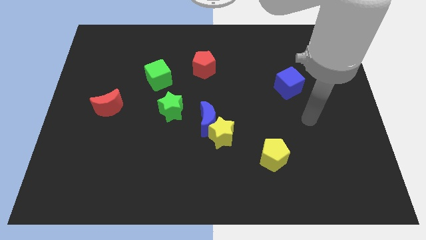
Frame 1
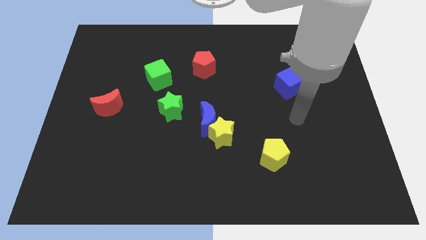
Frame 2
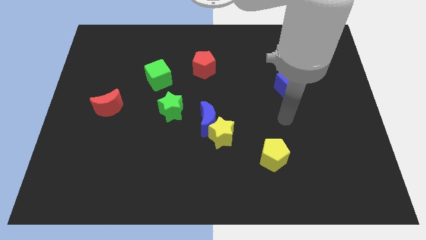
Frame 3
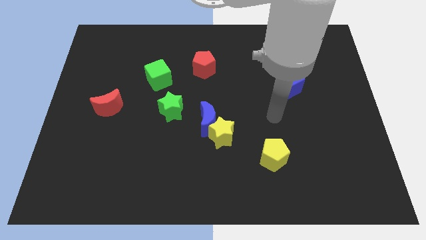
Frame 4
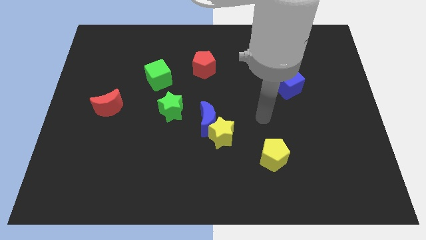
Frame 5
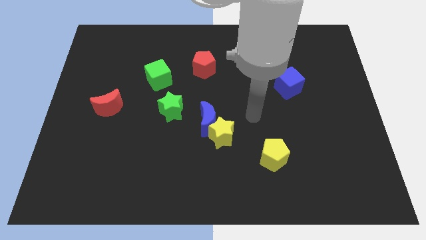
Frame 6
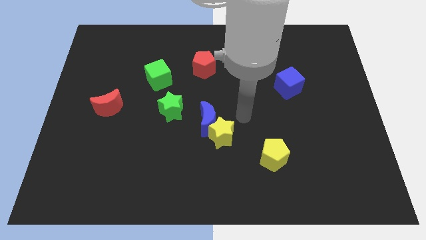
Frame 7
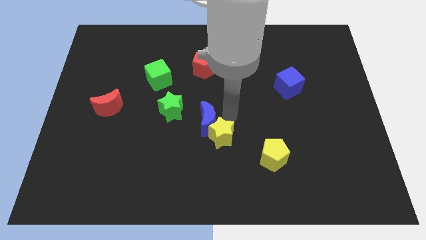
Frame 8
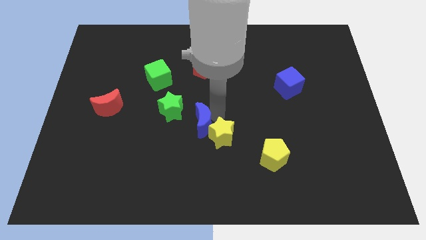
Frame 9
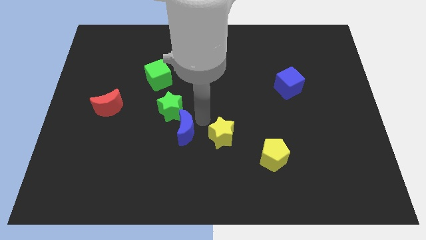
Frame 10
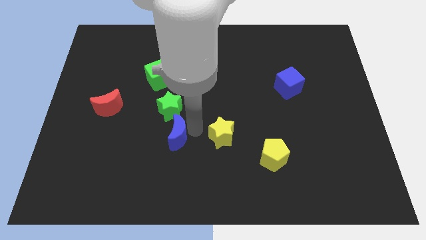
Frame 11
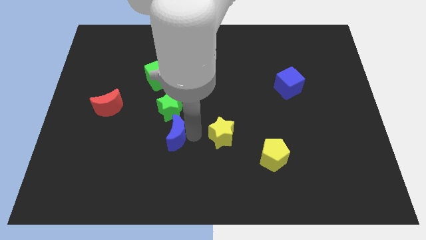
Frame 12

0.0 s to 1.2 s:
pull the yellow star apart from the blue moon

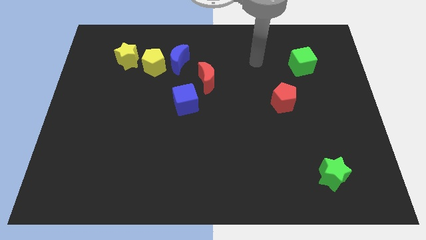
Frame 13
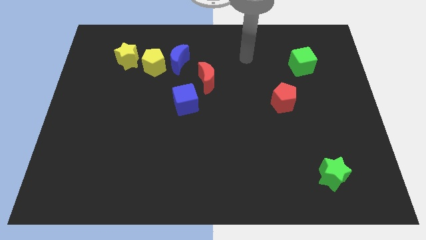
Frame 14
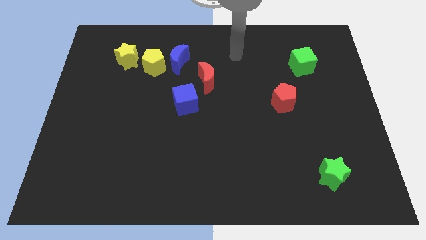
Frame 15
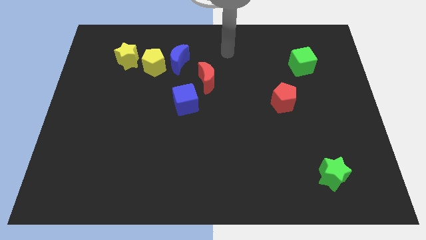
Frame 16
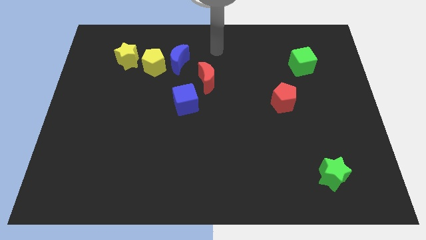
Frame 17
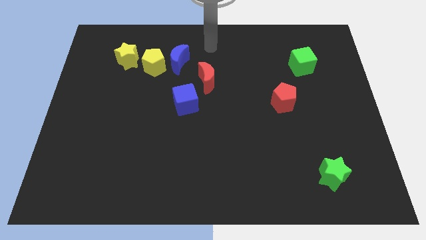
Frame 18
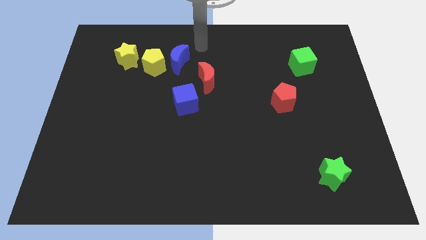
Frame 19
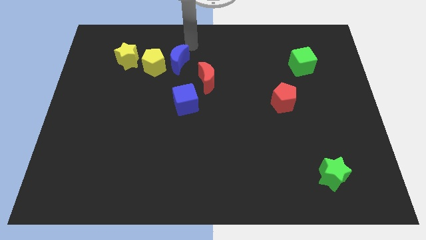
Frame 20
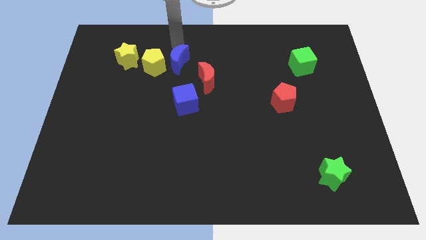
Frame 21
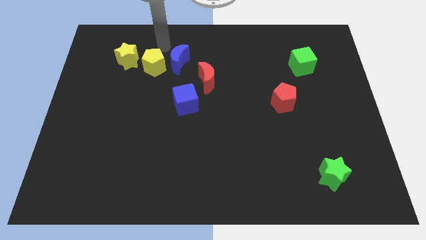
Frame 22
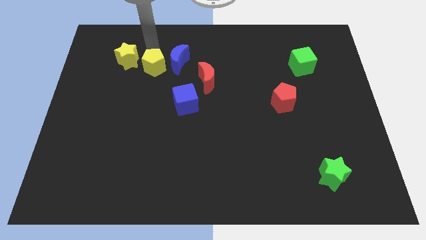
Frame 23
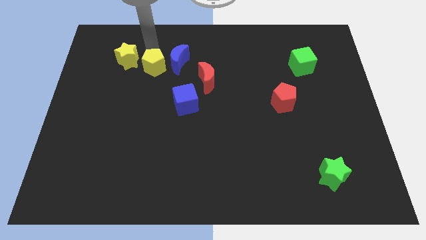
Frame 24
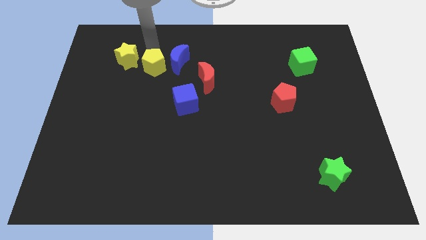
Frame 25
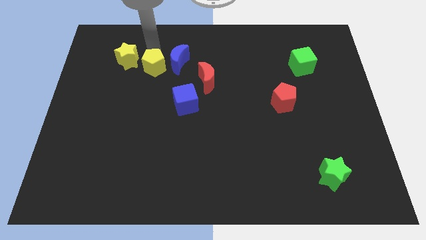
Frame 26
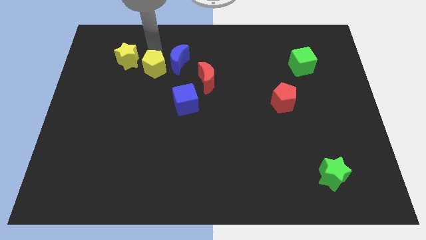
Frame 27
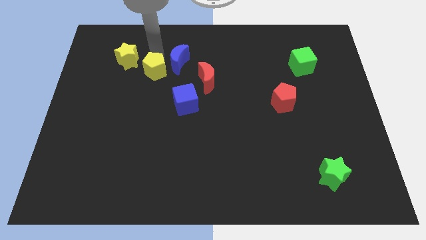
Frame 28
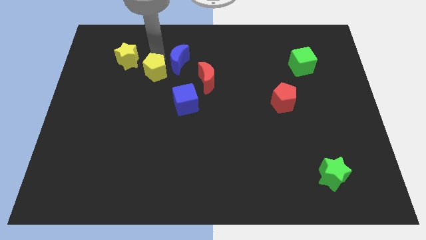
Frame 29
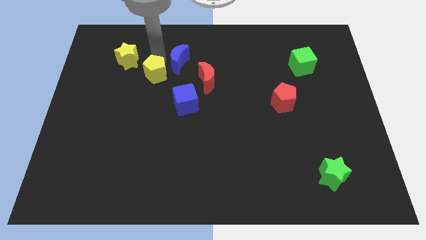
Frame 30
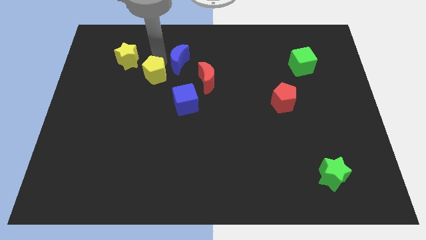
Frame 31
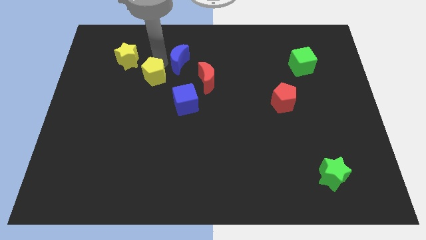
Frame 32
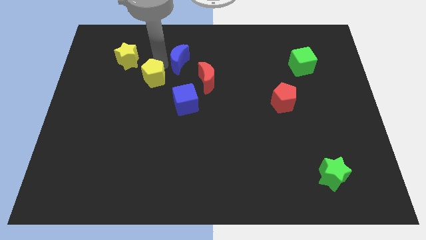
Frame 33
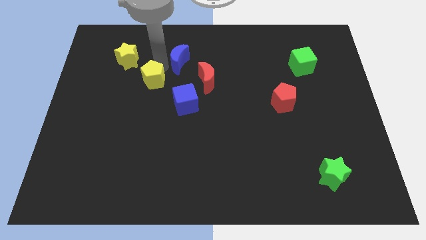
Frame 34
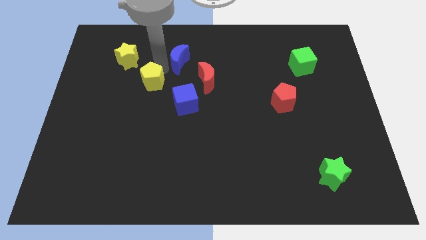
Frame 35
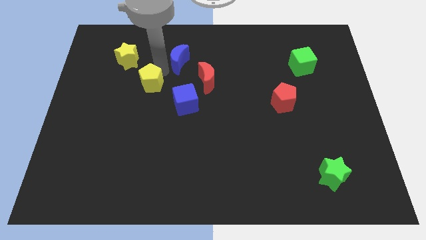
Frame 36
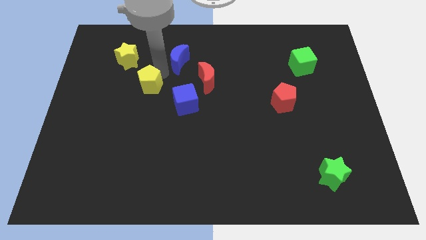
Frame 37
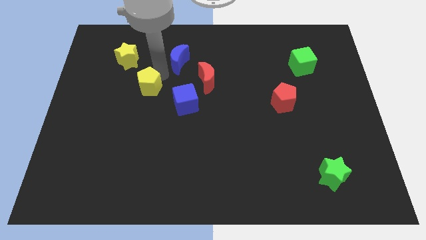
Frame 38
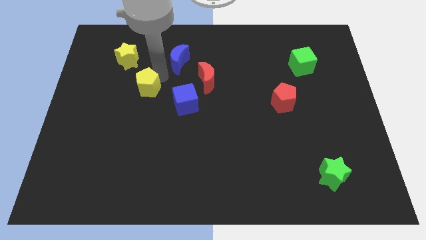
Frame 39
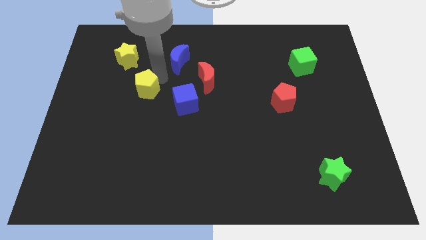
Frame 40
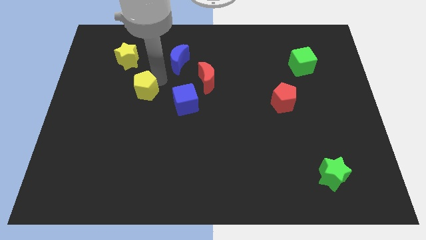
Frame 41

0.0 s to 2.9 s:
separate the yellow pentagon from the blue moon and yellow star

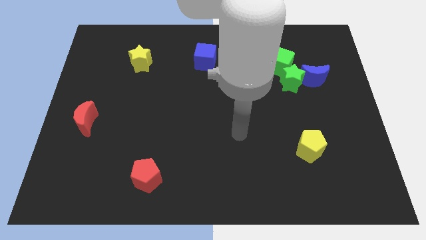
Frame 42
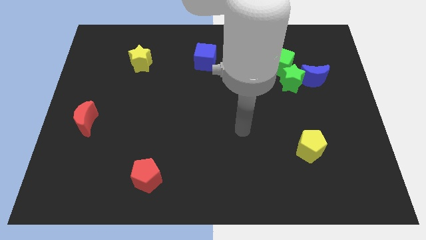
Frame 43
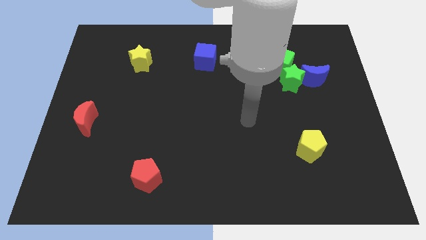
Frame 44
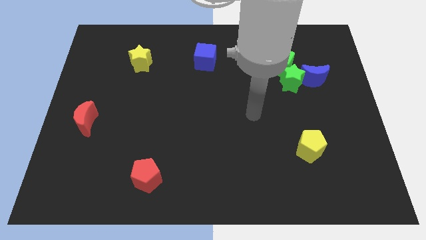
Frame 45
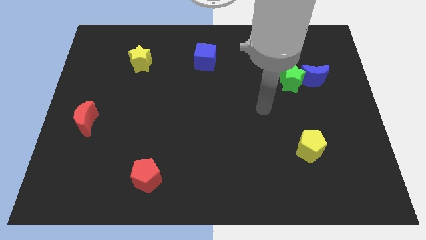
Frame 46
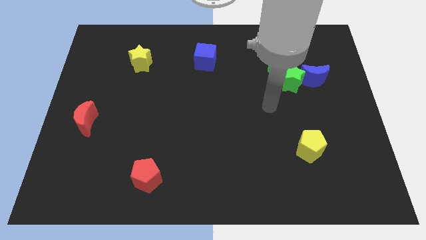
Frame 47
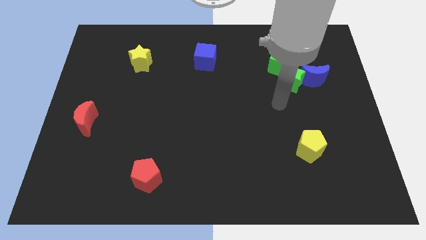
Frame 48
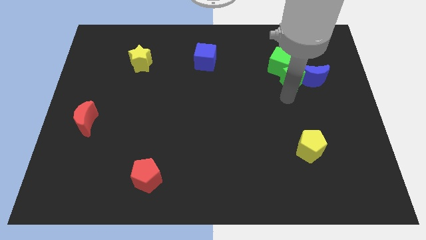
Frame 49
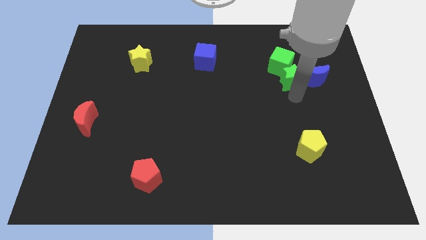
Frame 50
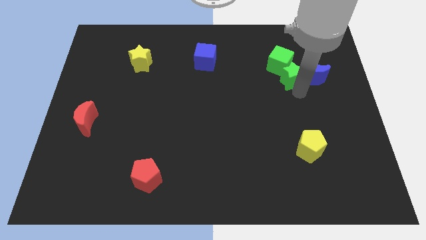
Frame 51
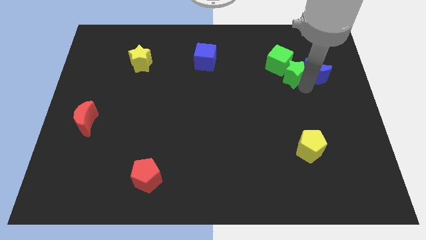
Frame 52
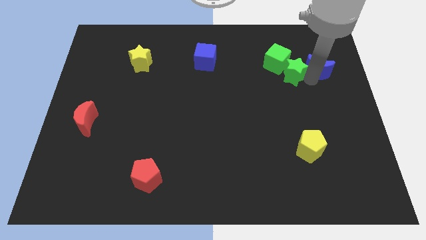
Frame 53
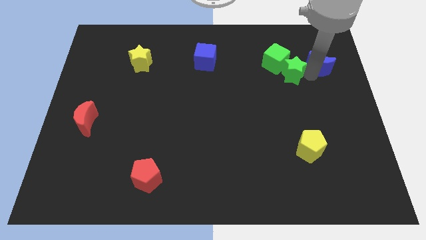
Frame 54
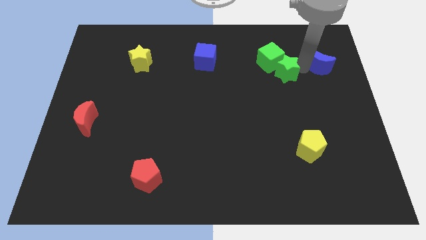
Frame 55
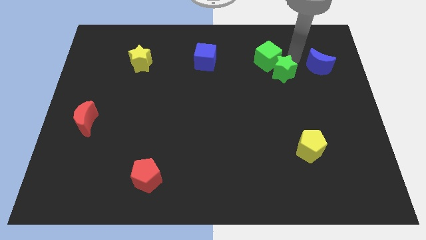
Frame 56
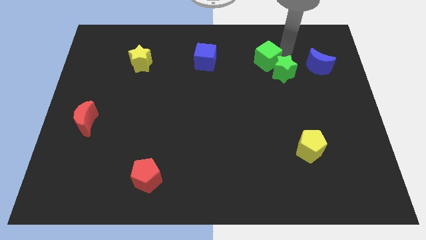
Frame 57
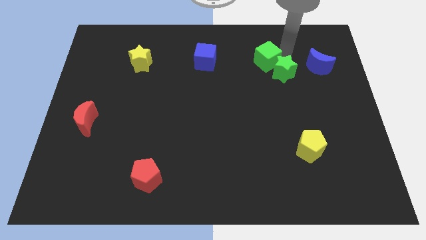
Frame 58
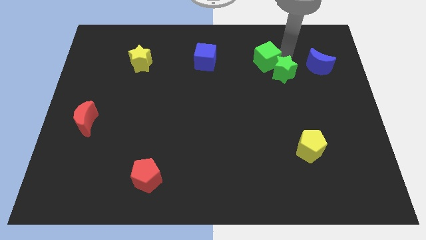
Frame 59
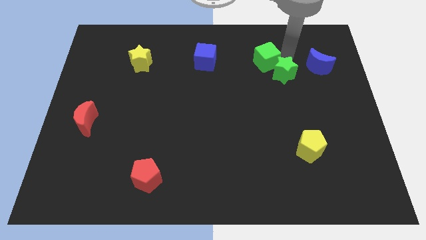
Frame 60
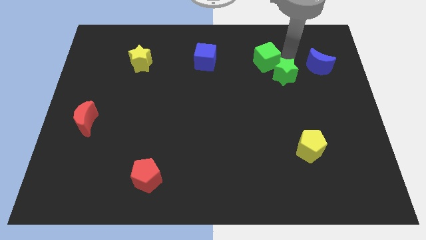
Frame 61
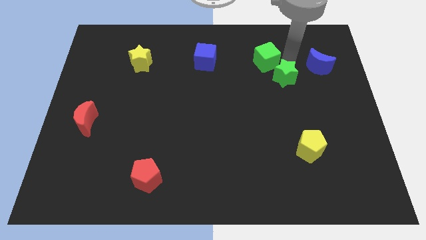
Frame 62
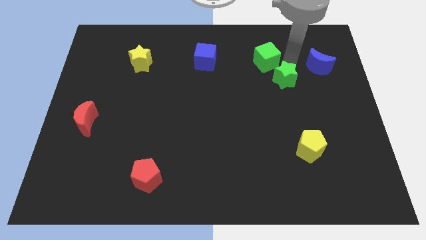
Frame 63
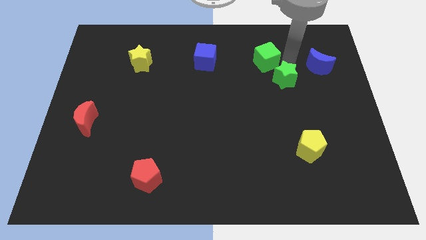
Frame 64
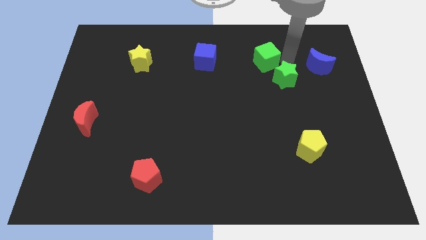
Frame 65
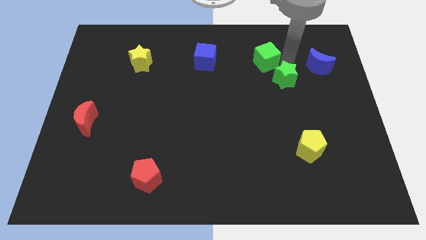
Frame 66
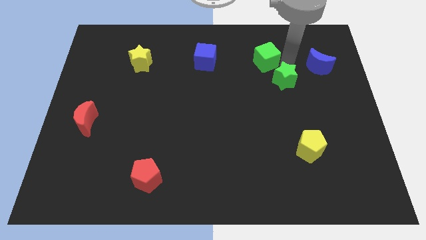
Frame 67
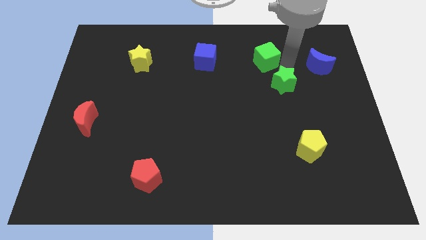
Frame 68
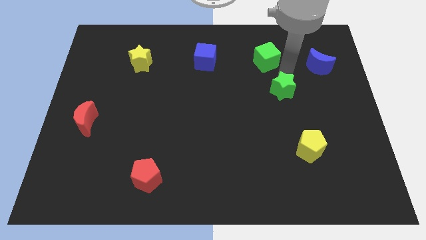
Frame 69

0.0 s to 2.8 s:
move the green star away from the green cube and blue moon

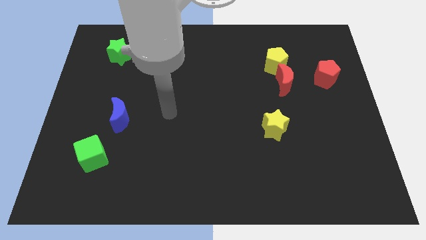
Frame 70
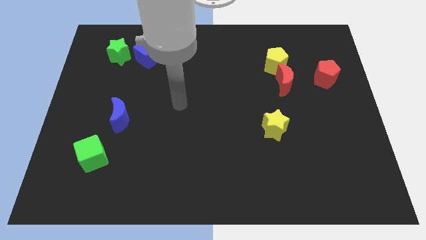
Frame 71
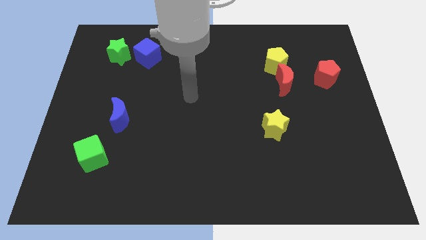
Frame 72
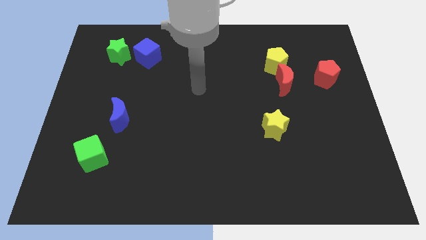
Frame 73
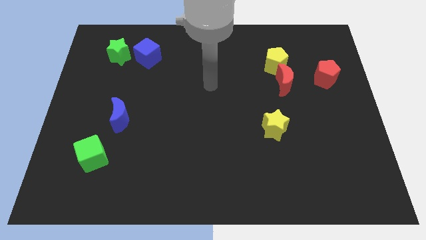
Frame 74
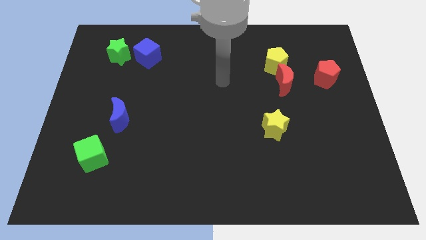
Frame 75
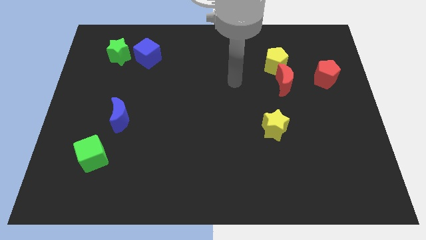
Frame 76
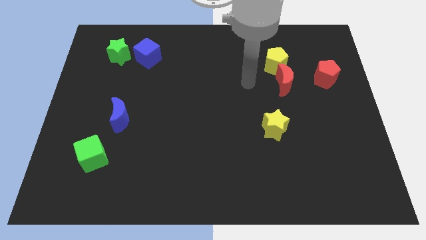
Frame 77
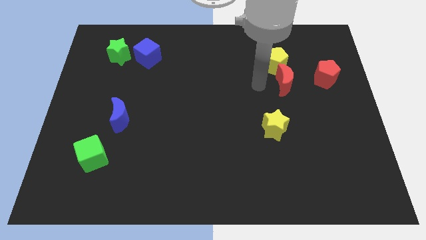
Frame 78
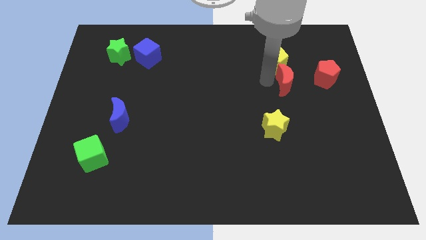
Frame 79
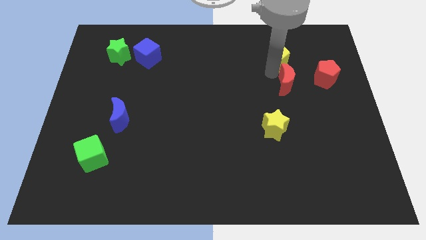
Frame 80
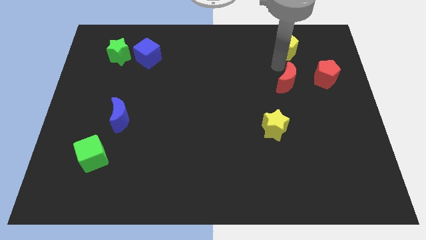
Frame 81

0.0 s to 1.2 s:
move the red moon away from the yellow pentagon

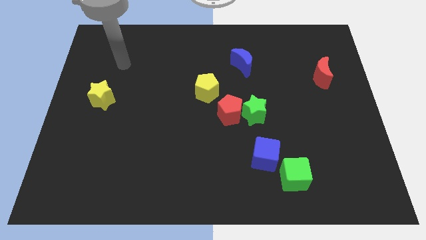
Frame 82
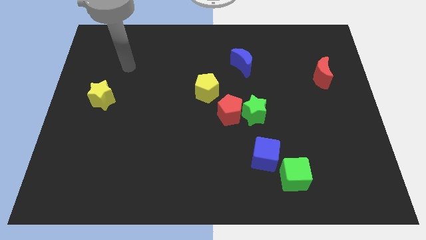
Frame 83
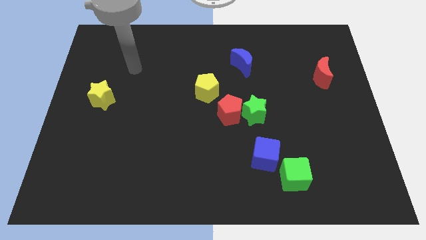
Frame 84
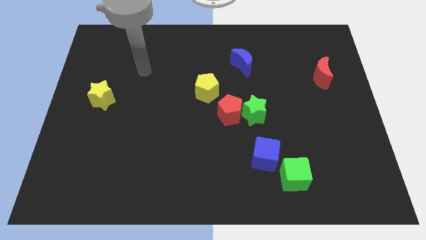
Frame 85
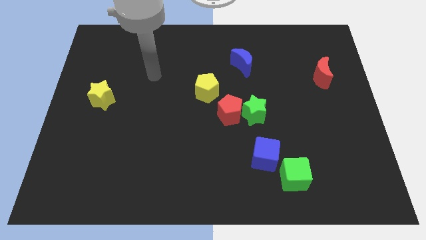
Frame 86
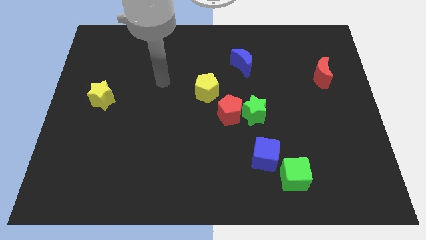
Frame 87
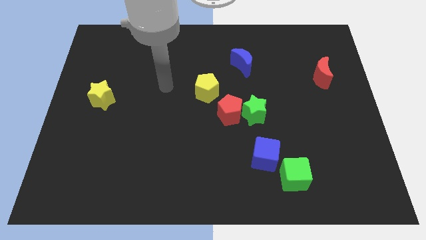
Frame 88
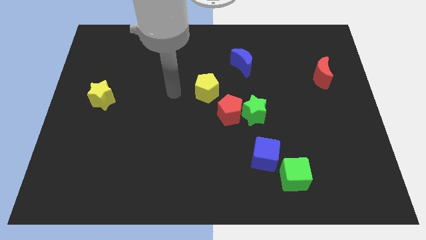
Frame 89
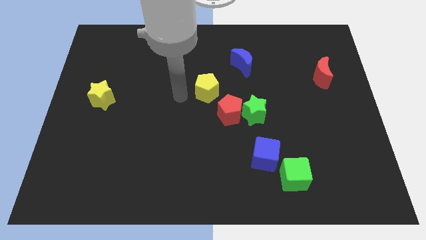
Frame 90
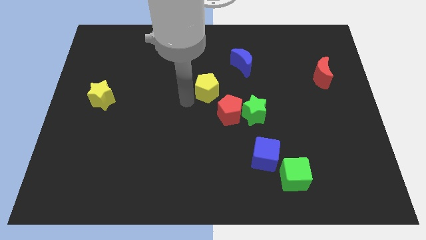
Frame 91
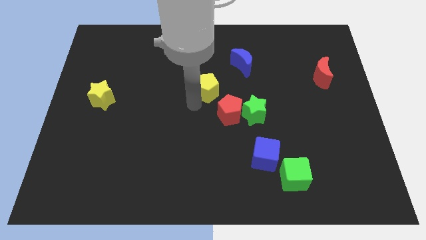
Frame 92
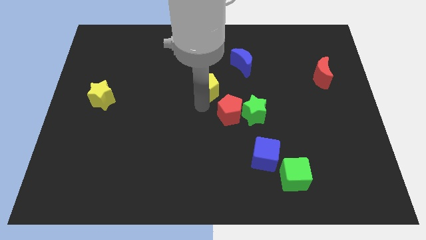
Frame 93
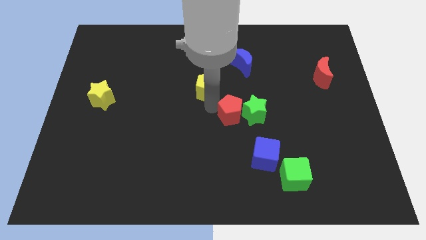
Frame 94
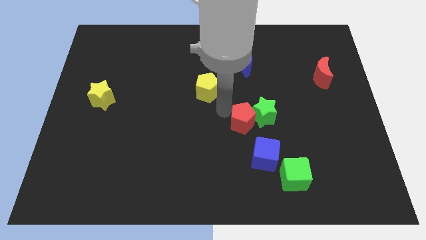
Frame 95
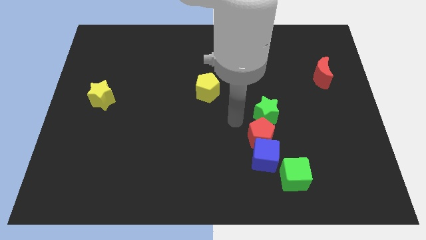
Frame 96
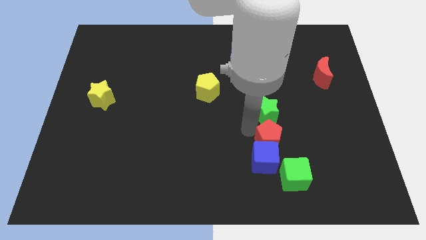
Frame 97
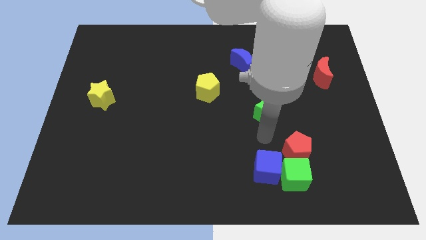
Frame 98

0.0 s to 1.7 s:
separate the green star from the red pentagon
